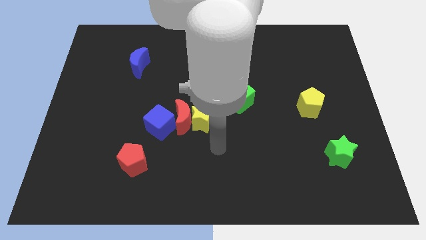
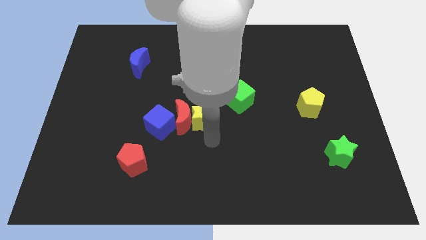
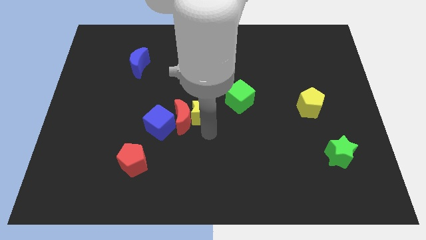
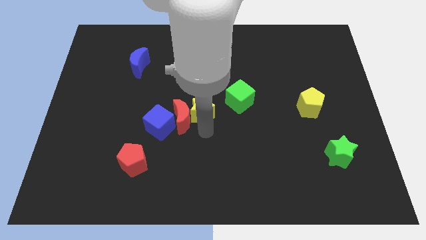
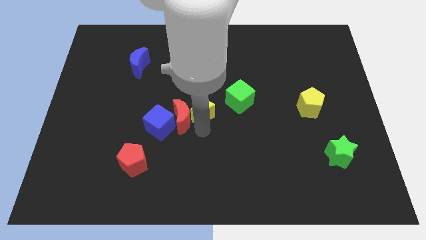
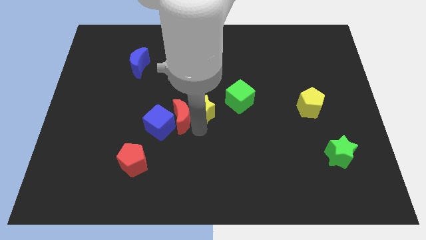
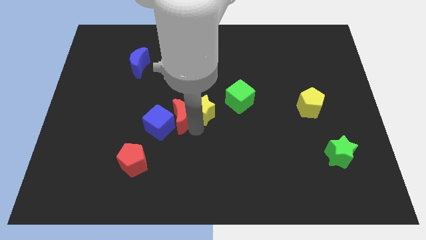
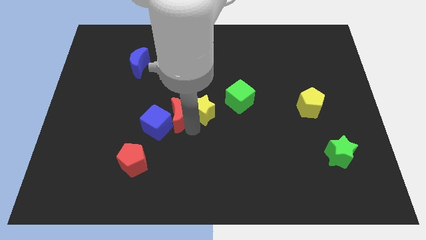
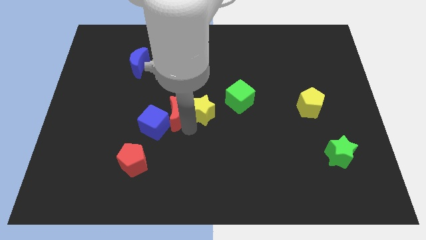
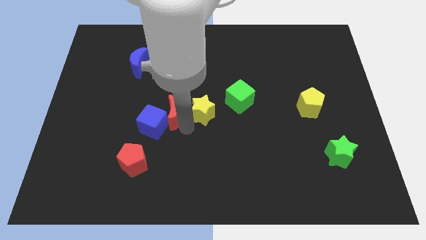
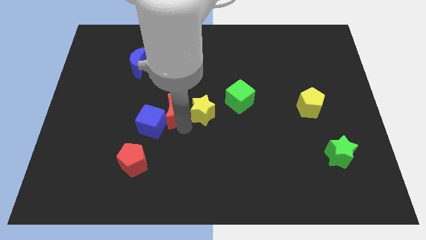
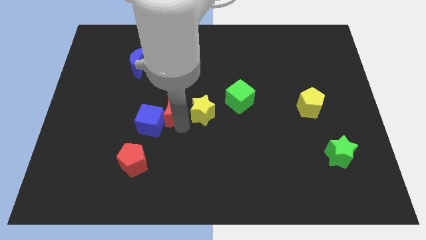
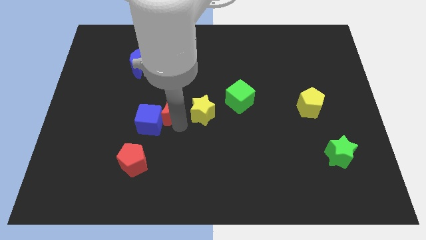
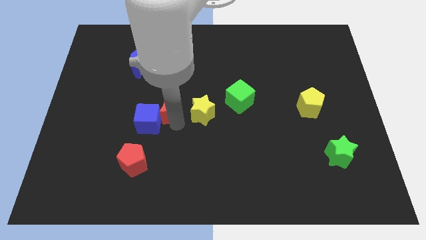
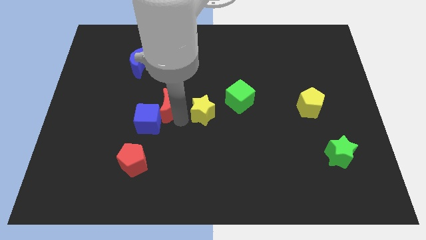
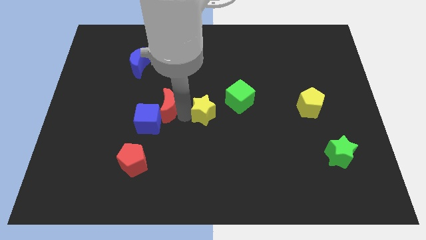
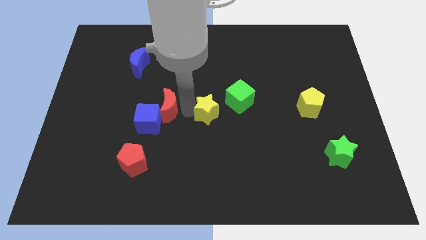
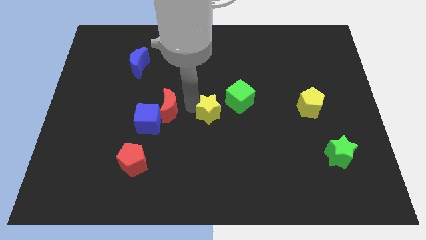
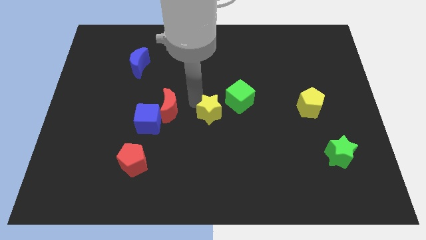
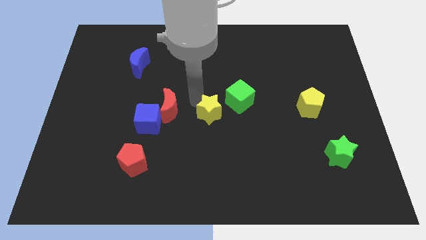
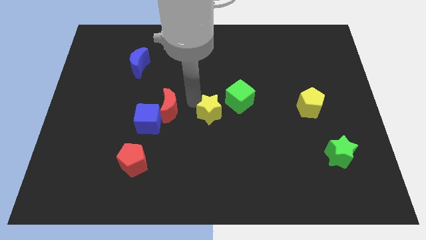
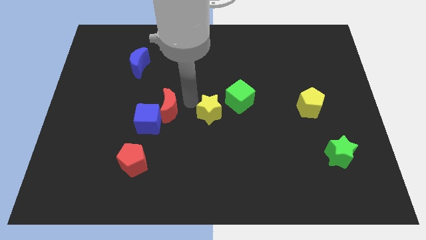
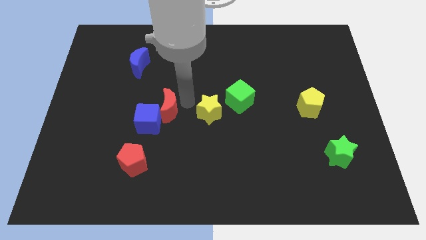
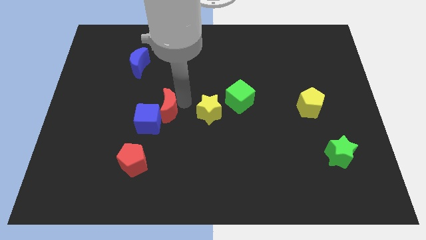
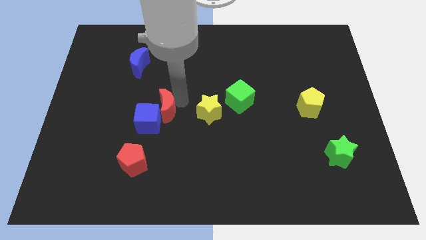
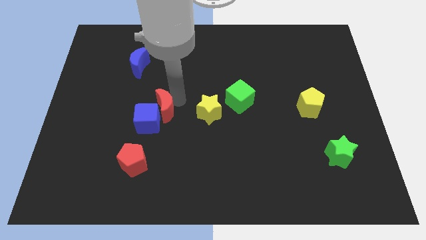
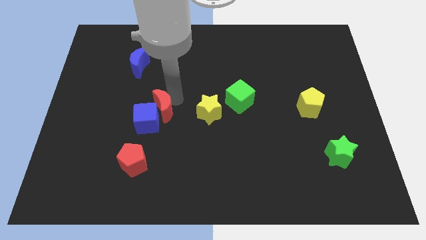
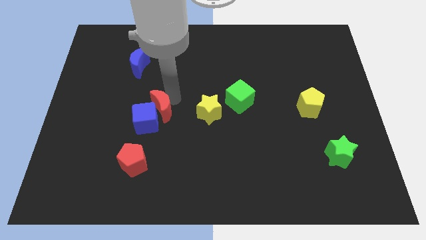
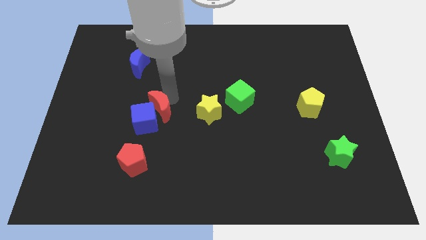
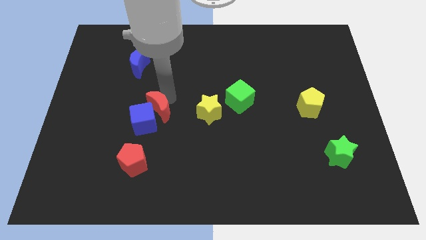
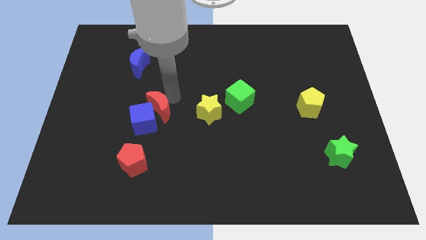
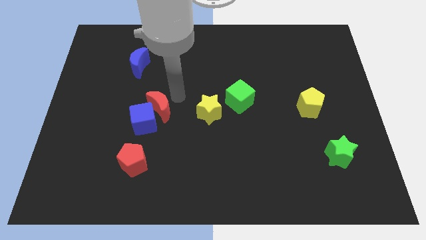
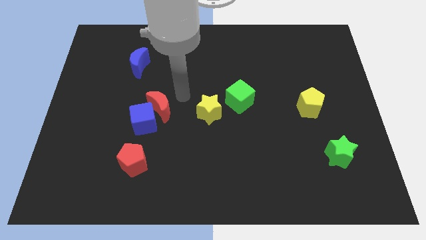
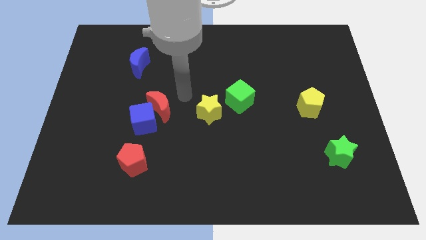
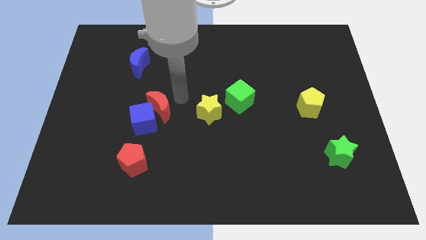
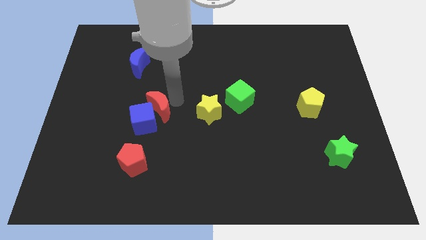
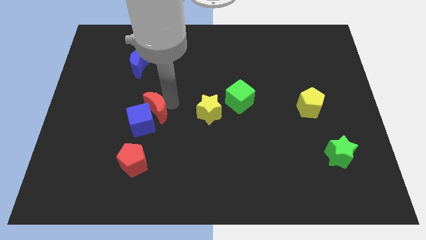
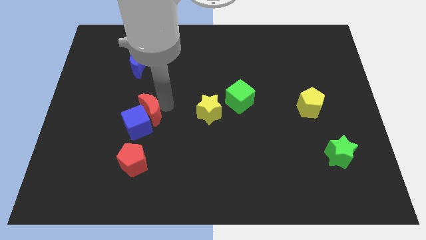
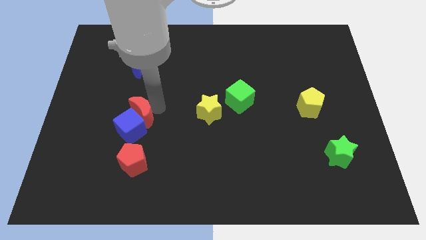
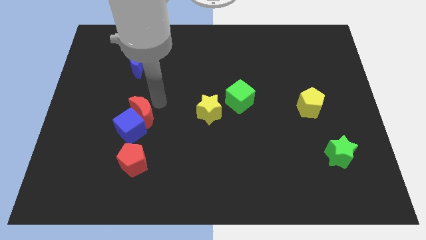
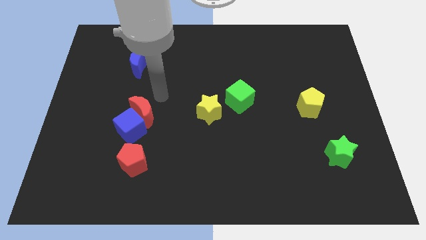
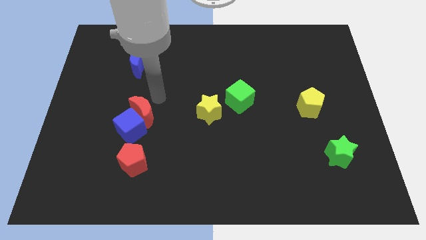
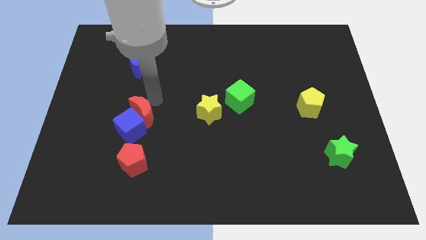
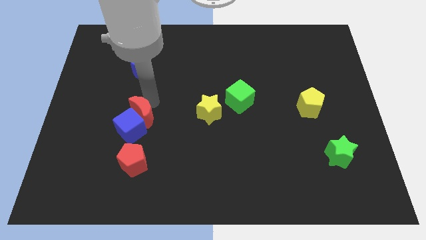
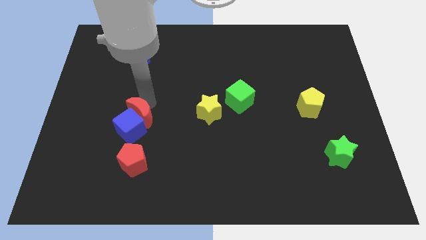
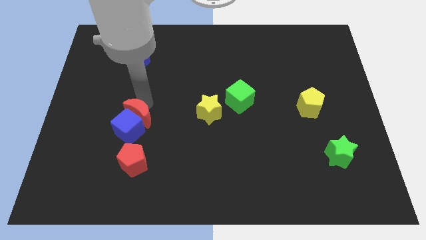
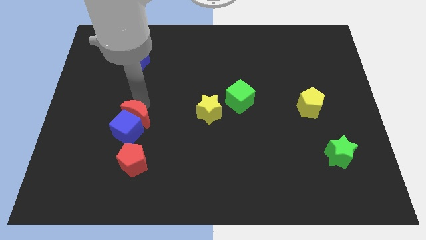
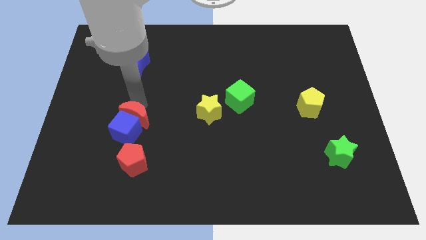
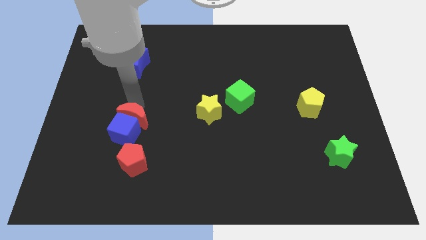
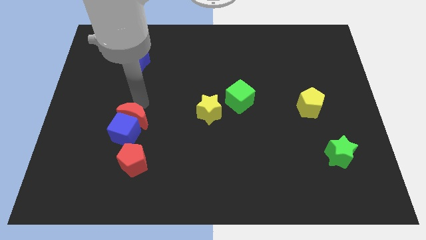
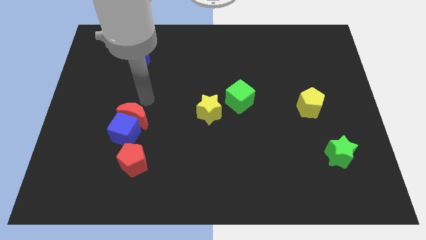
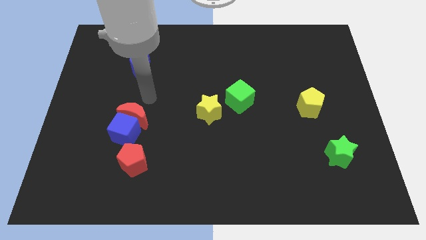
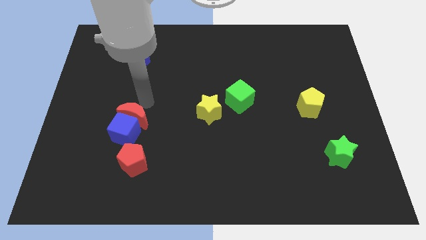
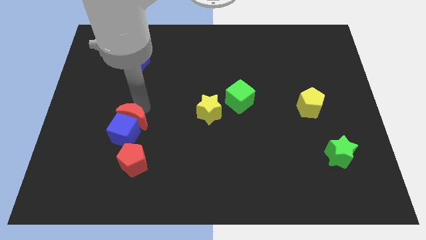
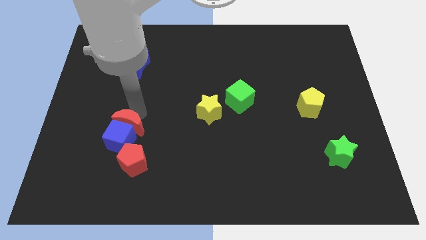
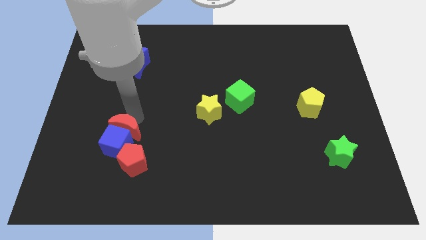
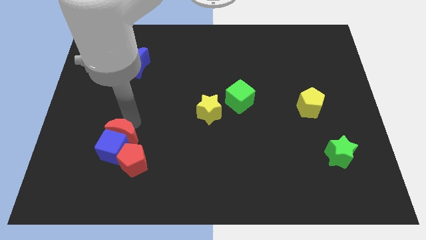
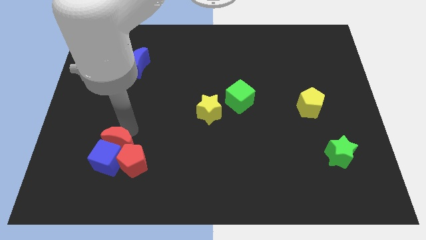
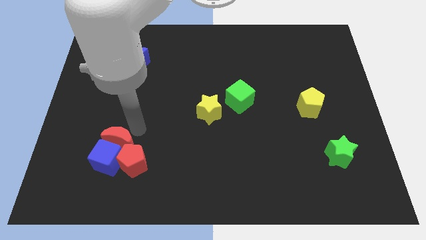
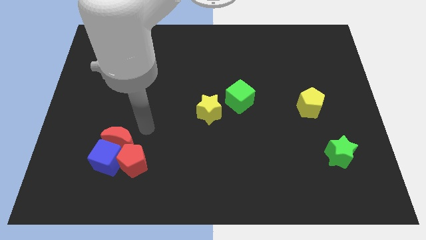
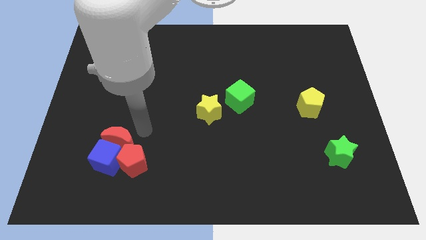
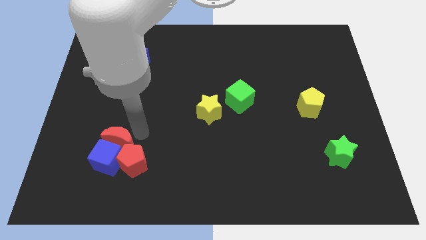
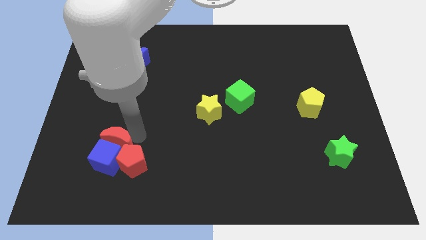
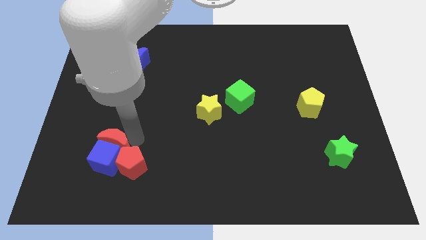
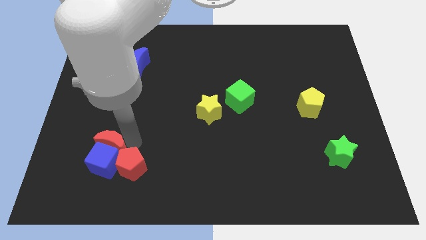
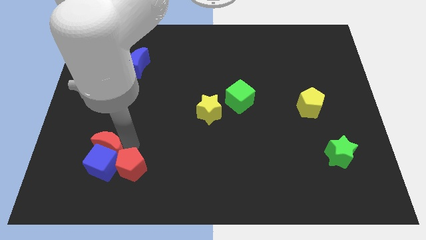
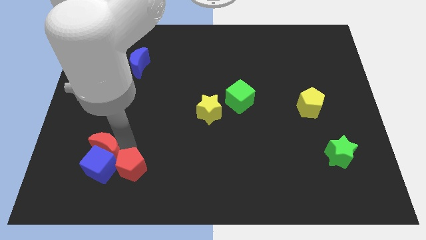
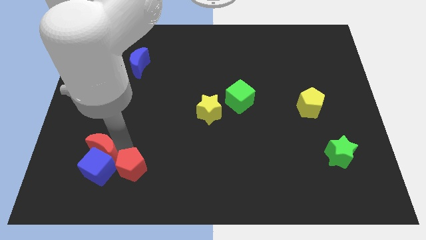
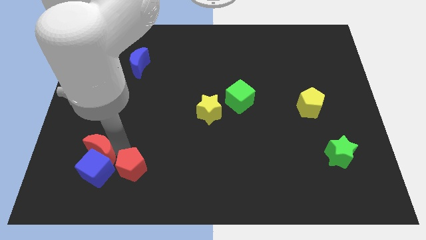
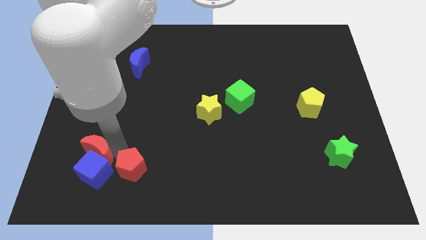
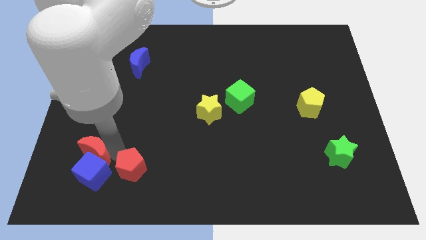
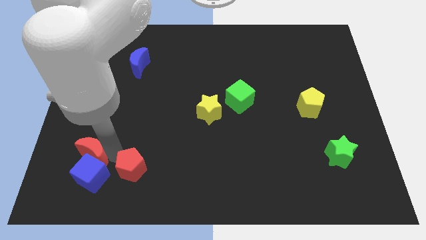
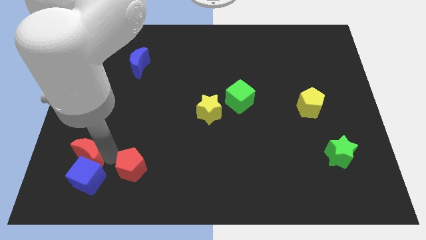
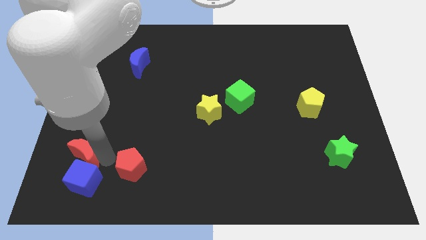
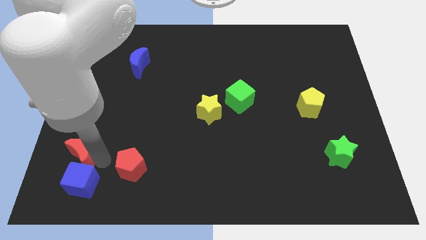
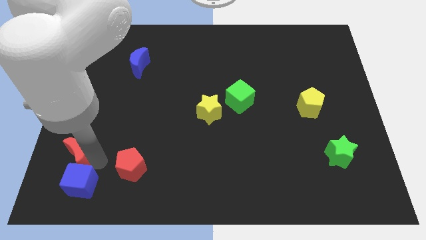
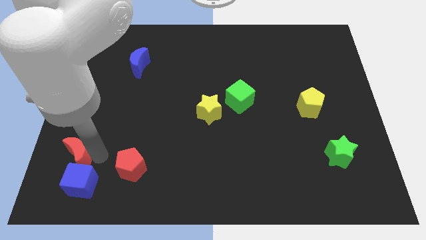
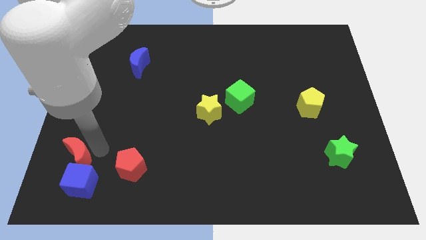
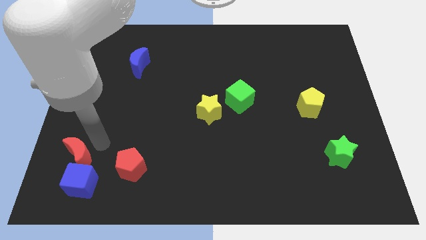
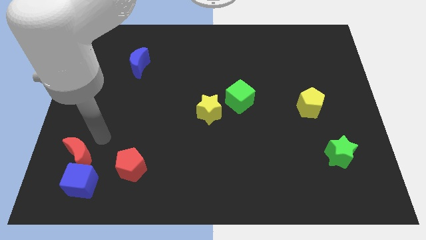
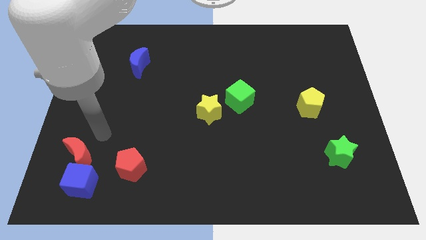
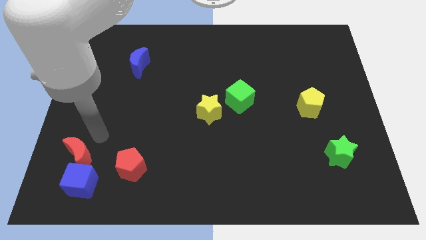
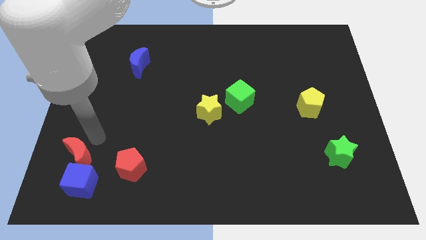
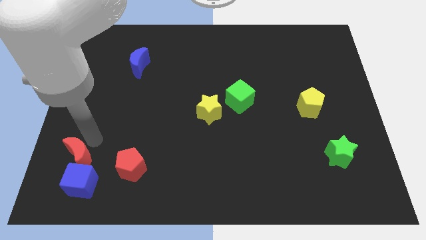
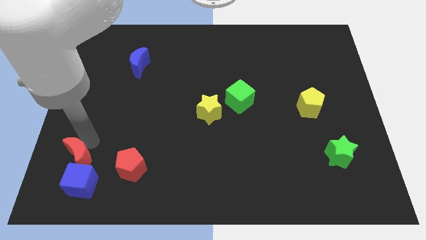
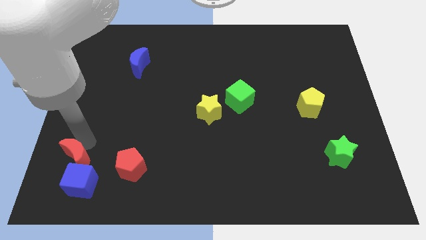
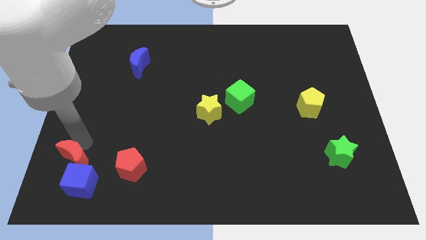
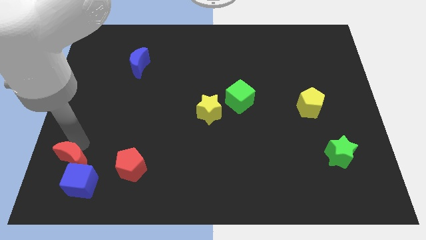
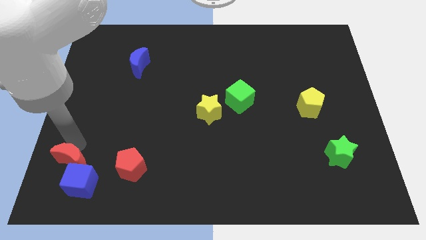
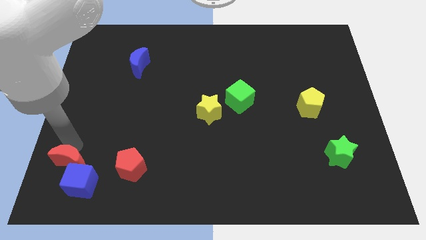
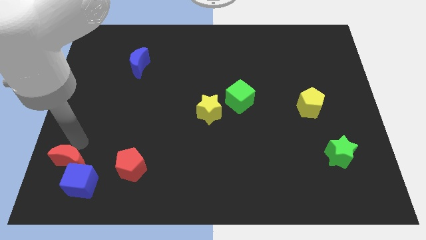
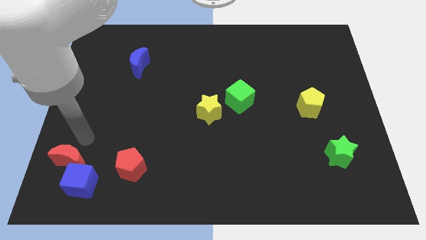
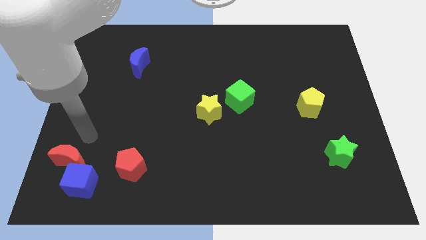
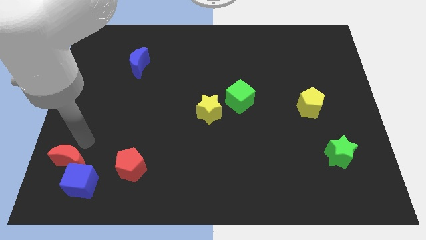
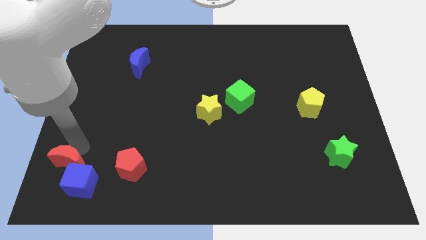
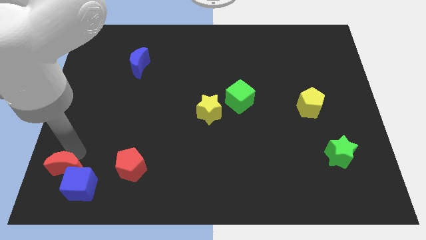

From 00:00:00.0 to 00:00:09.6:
put the red moon to the bottom left corner
